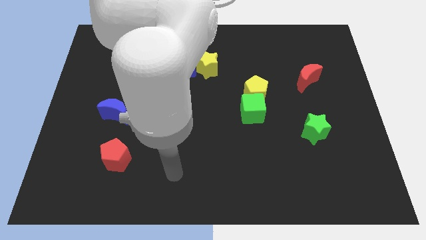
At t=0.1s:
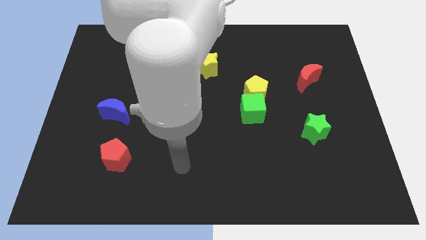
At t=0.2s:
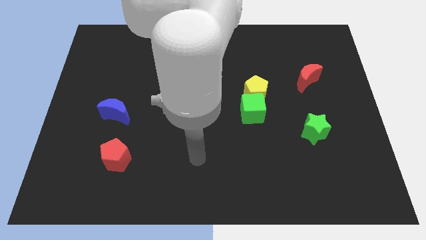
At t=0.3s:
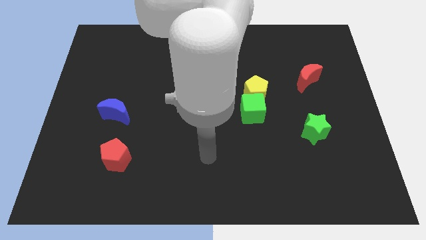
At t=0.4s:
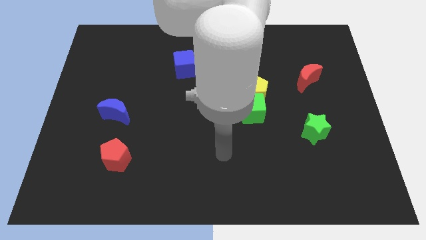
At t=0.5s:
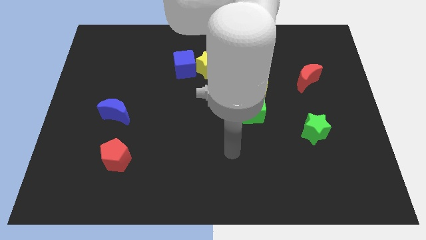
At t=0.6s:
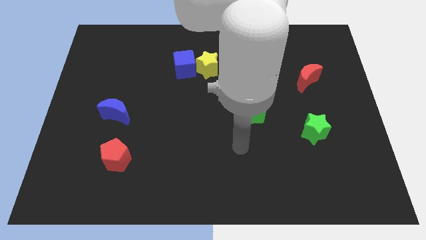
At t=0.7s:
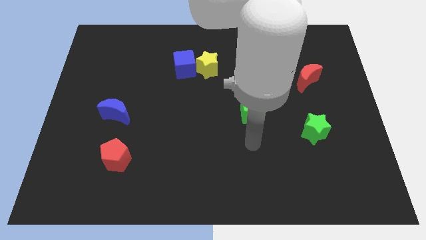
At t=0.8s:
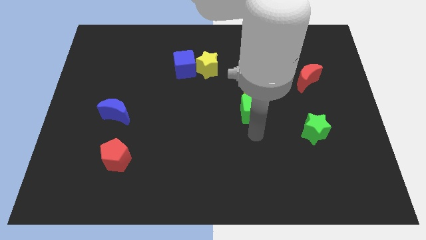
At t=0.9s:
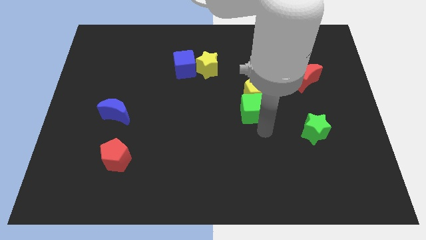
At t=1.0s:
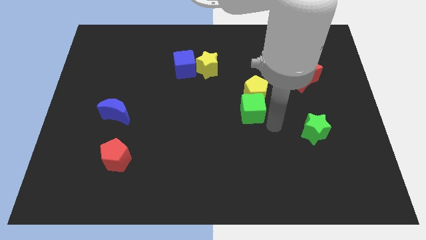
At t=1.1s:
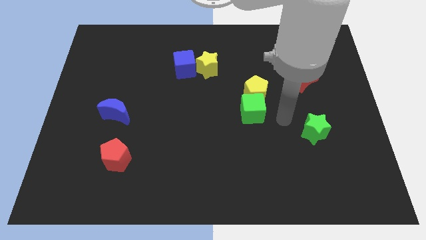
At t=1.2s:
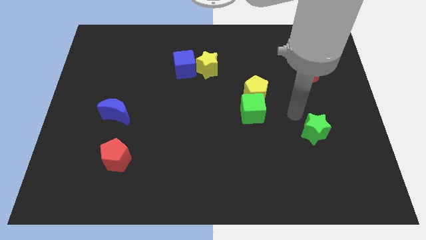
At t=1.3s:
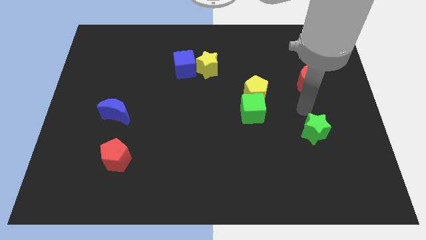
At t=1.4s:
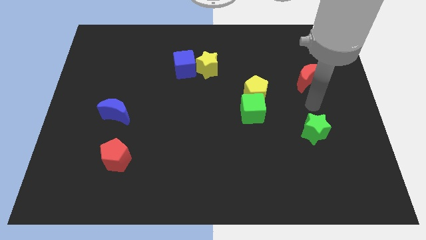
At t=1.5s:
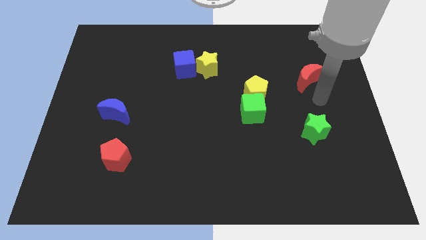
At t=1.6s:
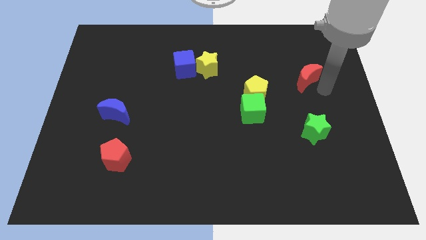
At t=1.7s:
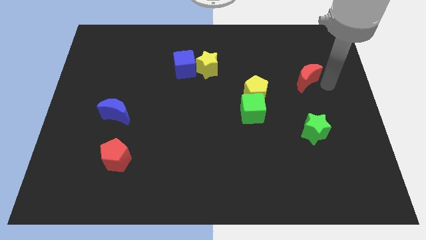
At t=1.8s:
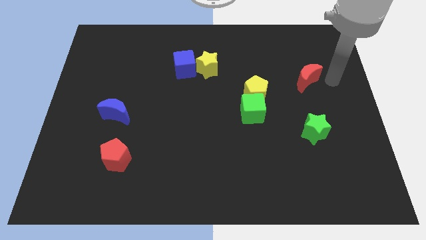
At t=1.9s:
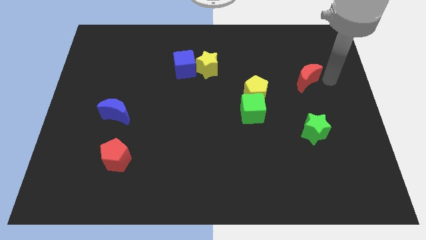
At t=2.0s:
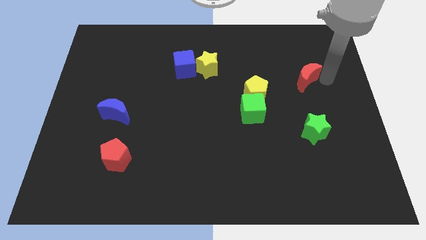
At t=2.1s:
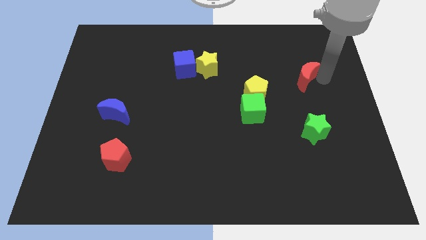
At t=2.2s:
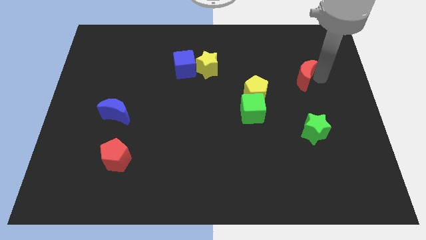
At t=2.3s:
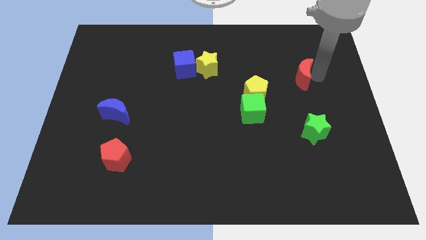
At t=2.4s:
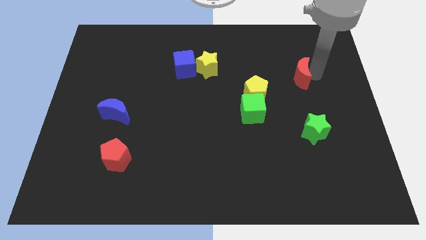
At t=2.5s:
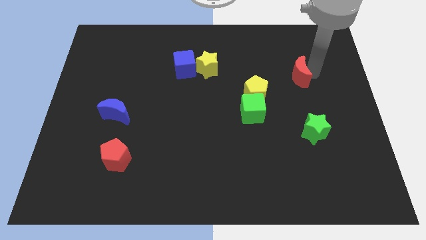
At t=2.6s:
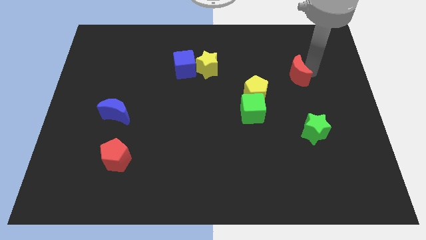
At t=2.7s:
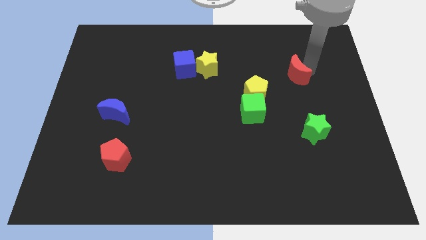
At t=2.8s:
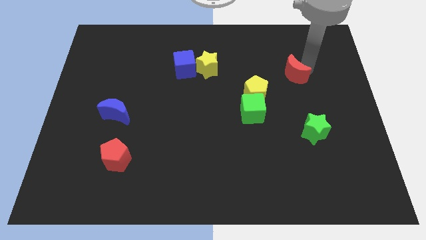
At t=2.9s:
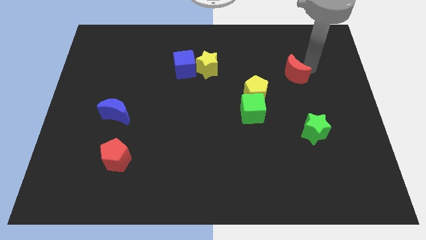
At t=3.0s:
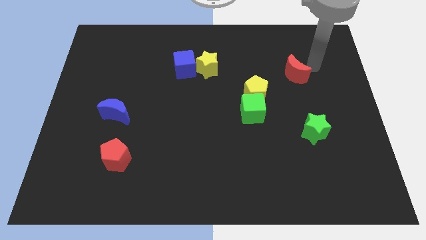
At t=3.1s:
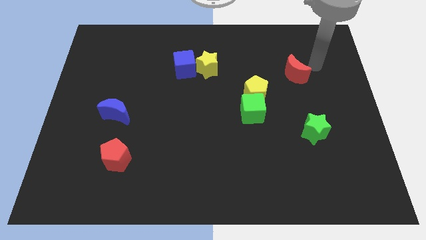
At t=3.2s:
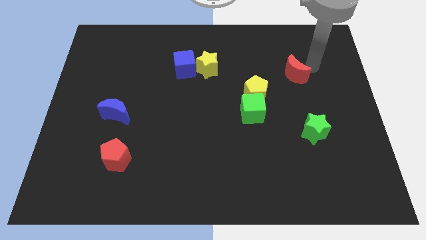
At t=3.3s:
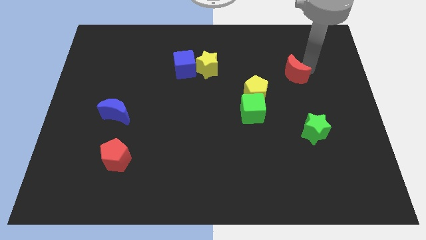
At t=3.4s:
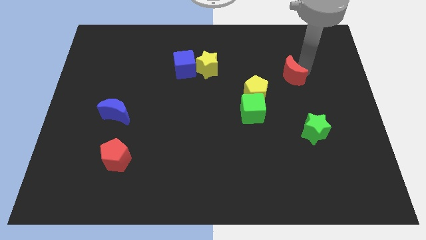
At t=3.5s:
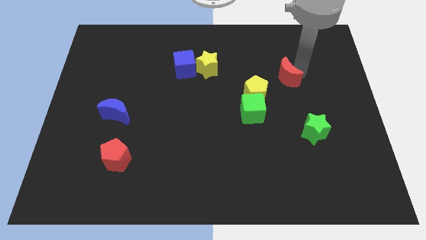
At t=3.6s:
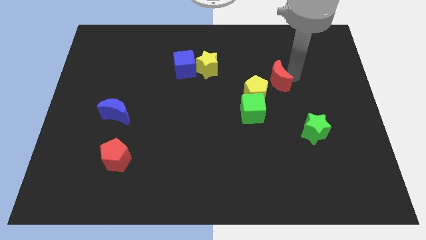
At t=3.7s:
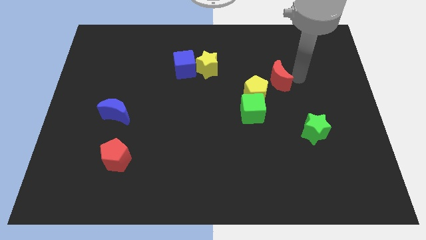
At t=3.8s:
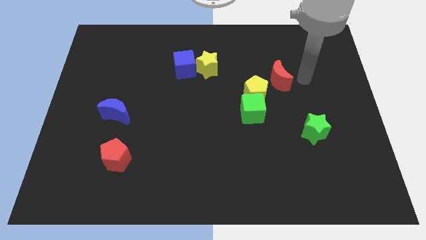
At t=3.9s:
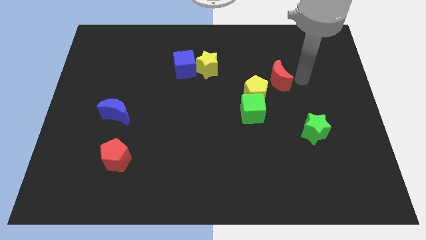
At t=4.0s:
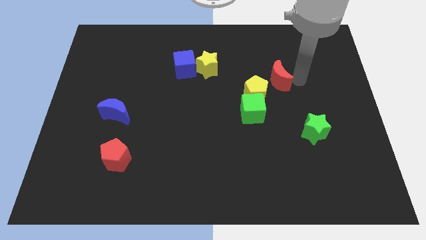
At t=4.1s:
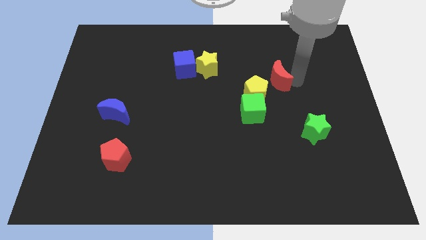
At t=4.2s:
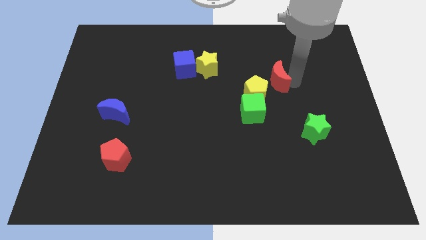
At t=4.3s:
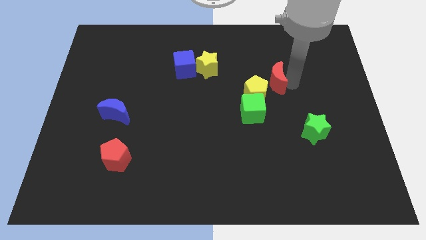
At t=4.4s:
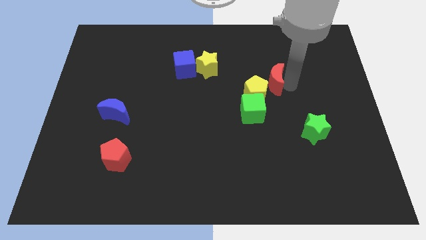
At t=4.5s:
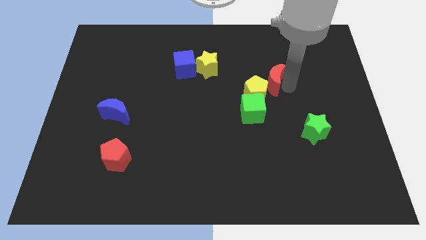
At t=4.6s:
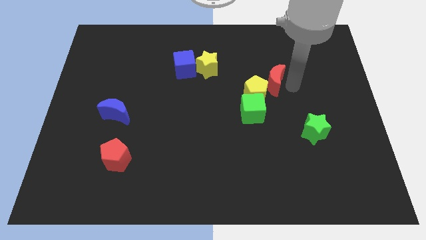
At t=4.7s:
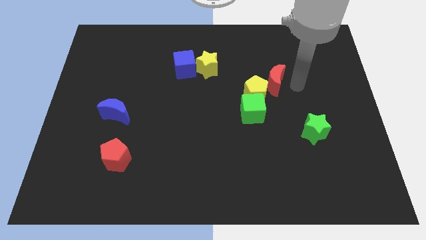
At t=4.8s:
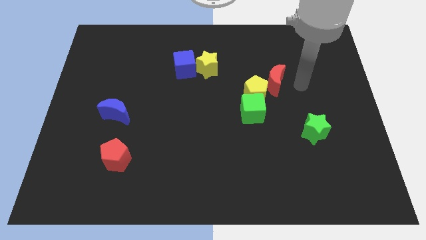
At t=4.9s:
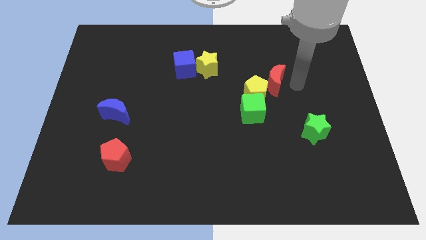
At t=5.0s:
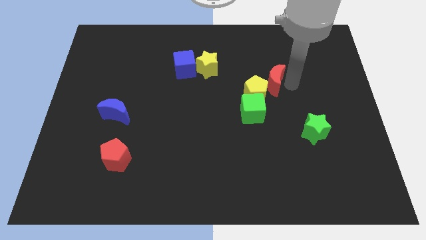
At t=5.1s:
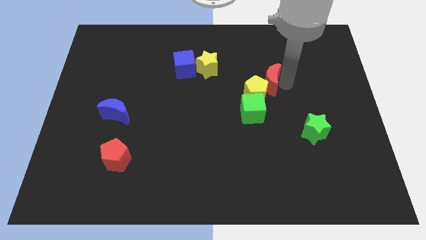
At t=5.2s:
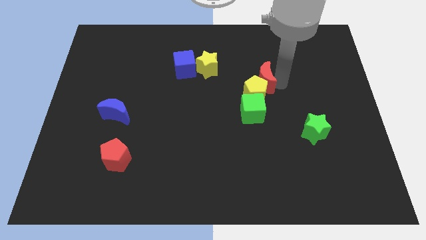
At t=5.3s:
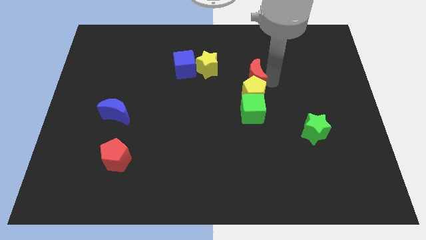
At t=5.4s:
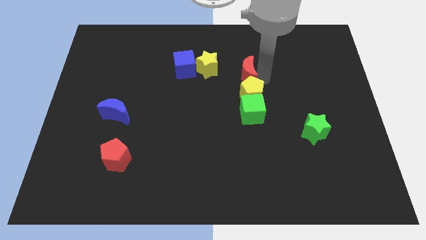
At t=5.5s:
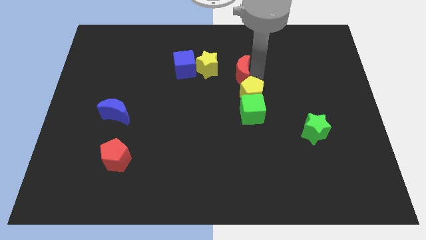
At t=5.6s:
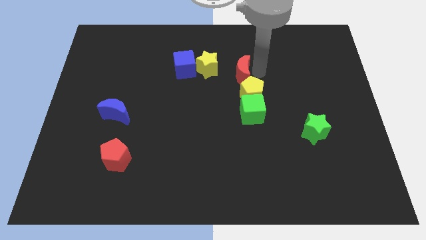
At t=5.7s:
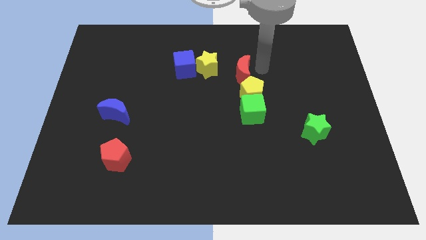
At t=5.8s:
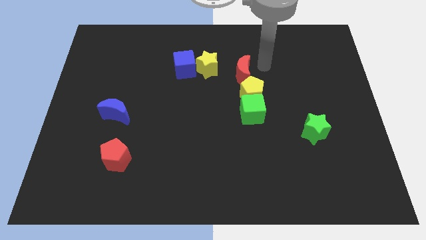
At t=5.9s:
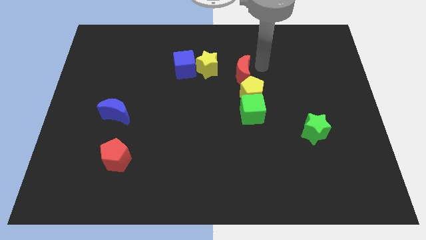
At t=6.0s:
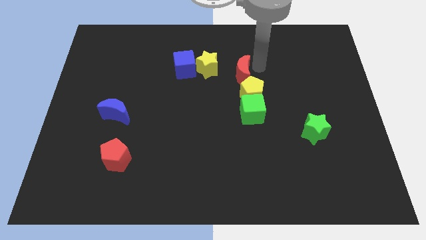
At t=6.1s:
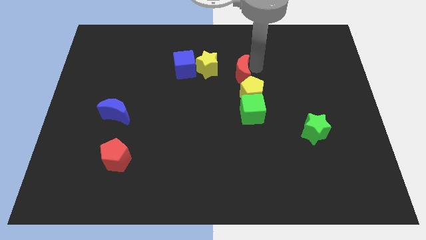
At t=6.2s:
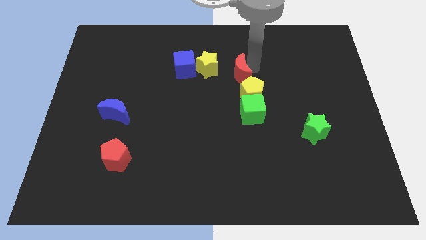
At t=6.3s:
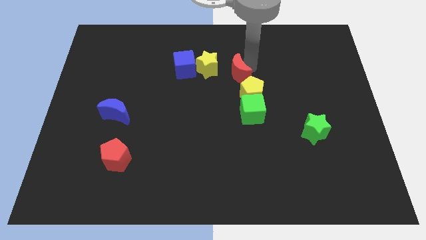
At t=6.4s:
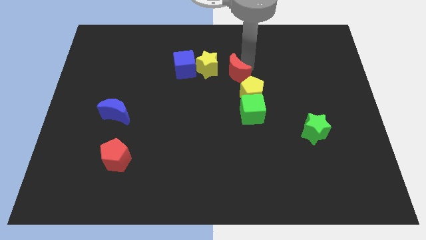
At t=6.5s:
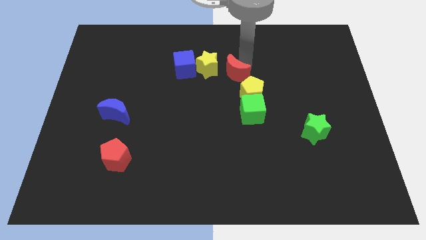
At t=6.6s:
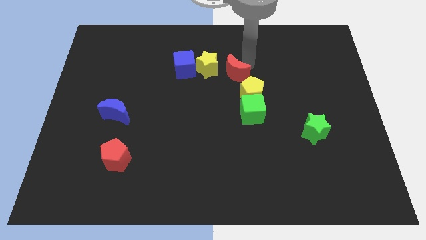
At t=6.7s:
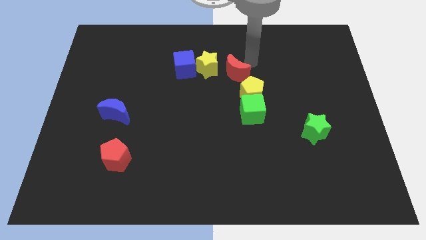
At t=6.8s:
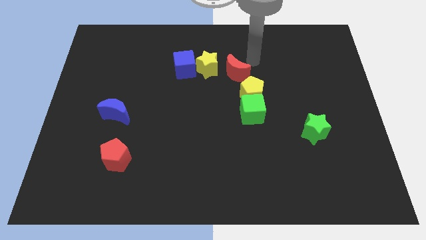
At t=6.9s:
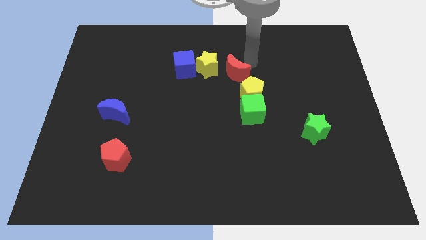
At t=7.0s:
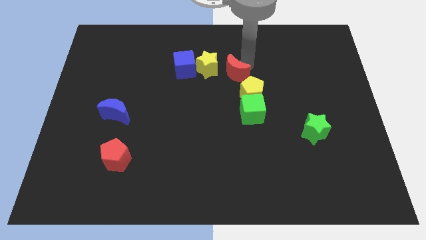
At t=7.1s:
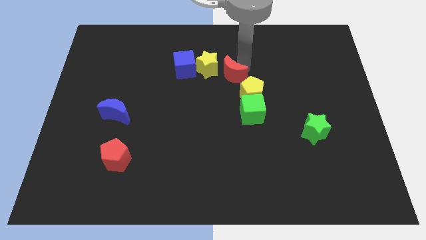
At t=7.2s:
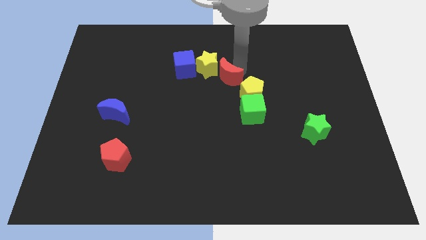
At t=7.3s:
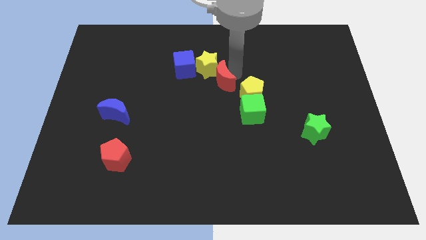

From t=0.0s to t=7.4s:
slide the red moon to the left
